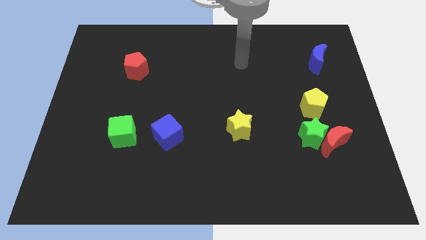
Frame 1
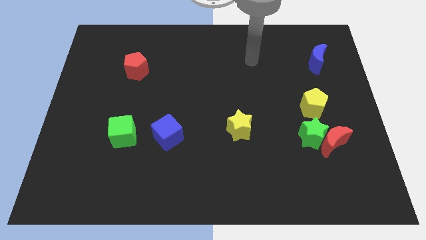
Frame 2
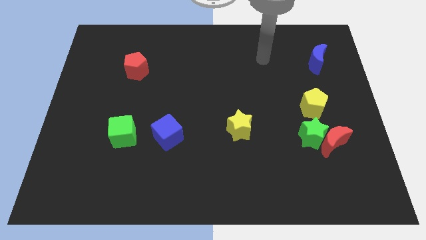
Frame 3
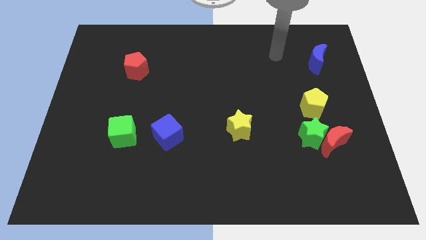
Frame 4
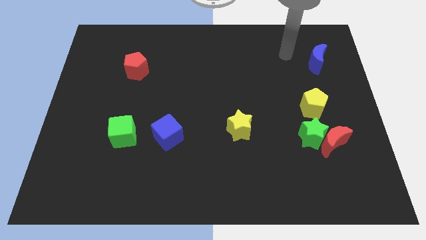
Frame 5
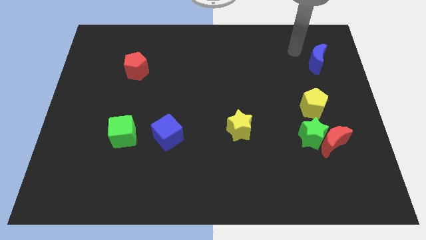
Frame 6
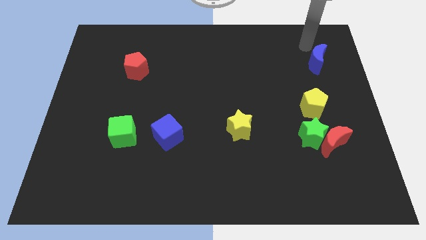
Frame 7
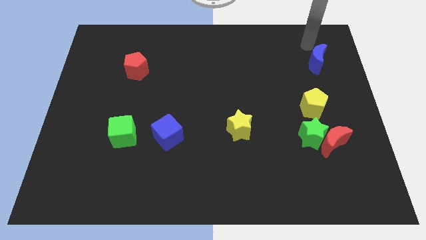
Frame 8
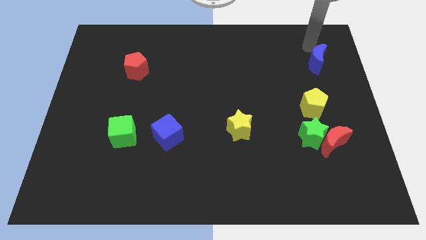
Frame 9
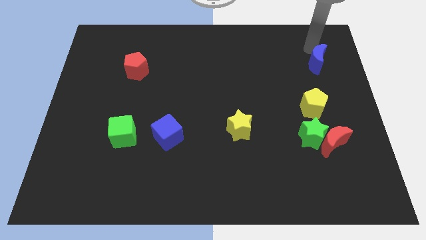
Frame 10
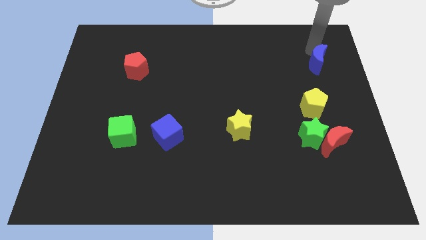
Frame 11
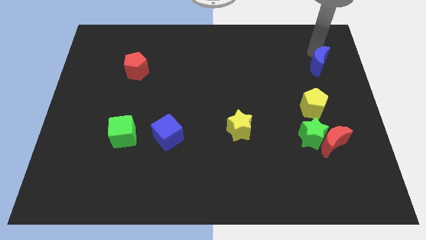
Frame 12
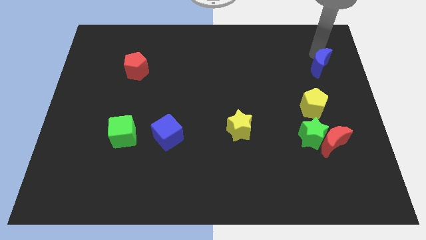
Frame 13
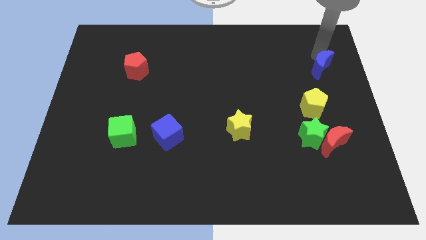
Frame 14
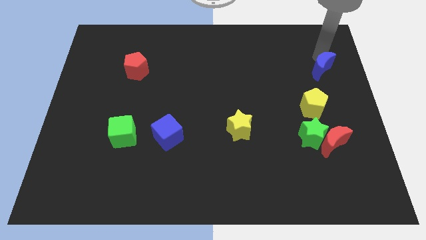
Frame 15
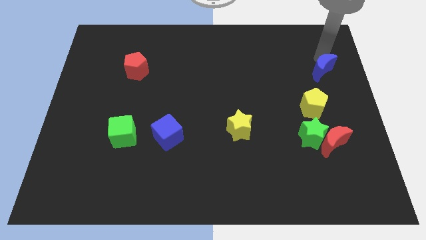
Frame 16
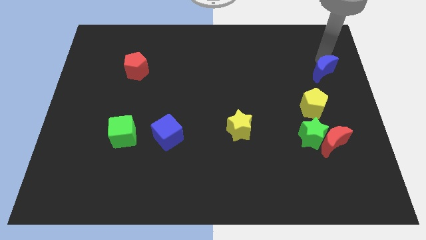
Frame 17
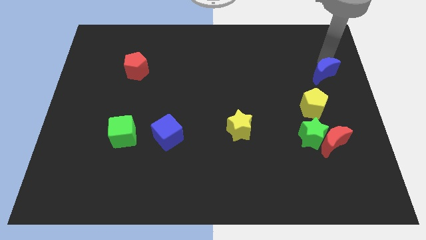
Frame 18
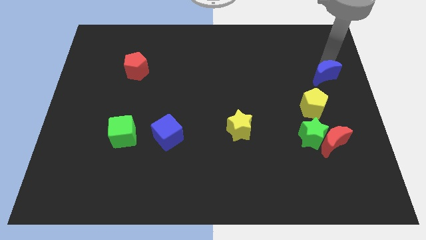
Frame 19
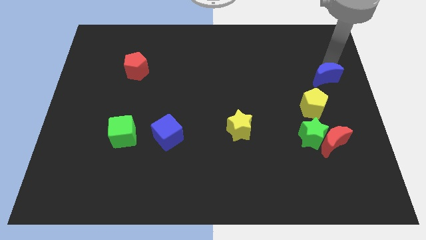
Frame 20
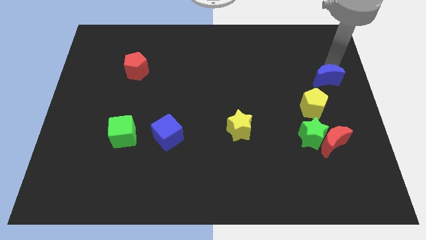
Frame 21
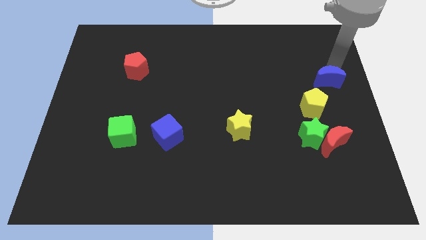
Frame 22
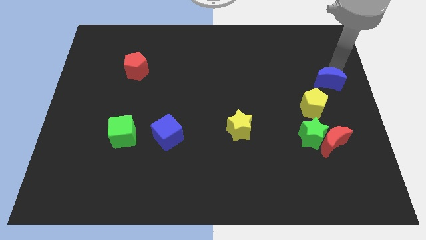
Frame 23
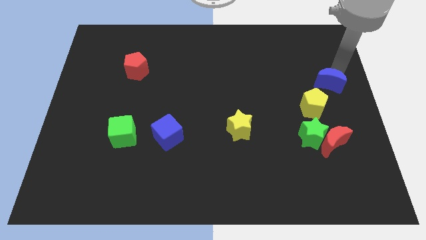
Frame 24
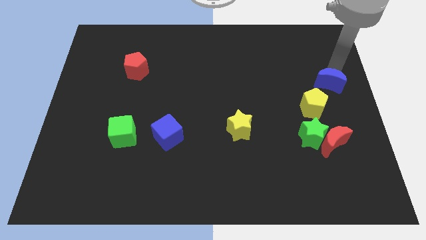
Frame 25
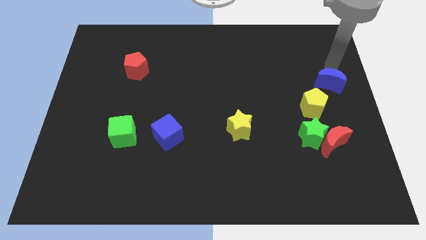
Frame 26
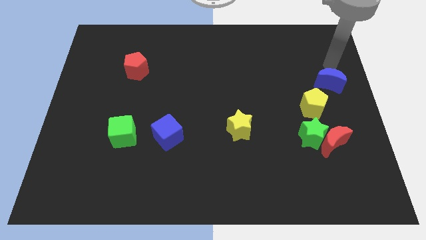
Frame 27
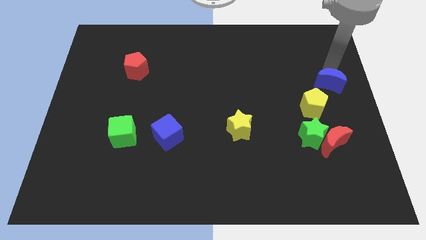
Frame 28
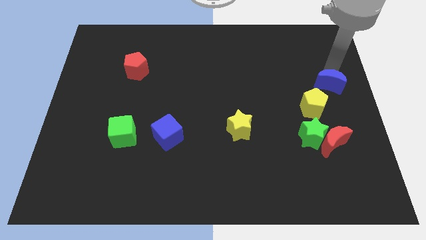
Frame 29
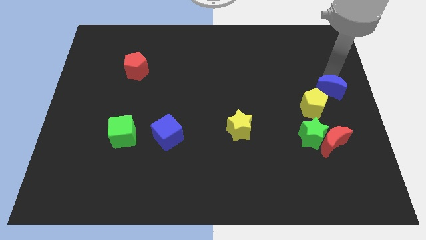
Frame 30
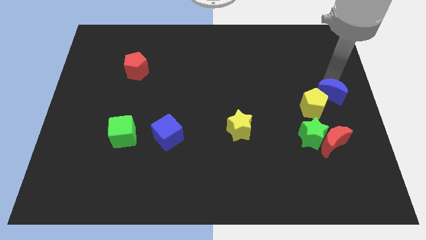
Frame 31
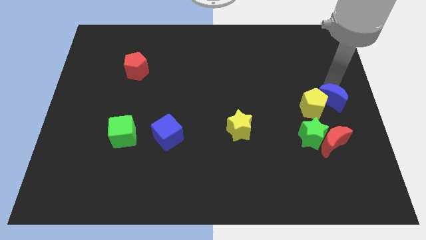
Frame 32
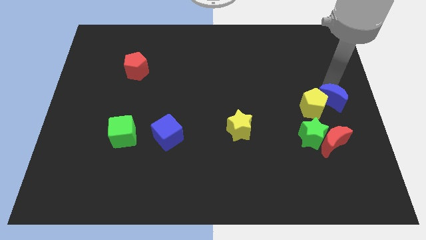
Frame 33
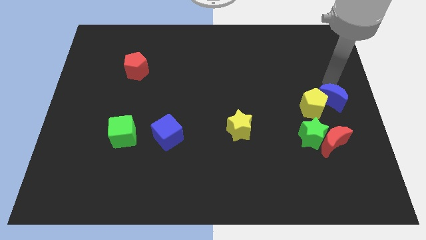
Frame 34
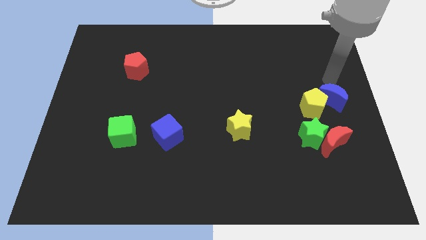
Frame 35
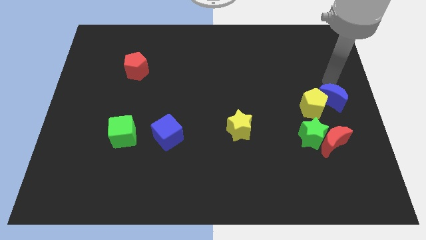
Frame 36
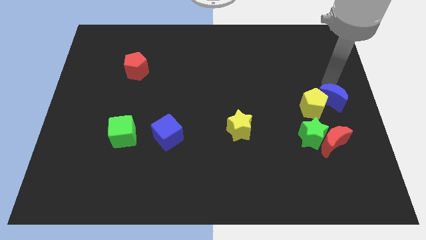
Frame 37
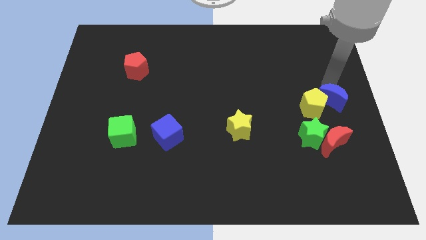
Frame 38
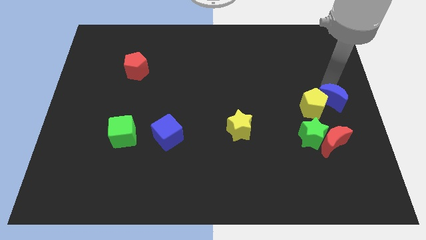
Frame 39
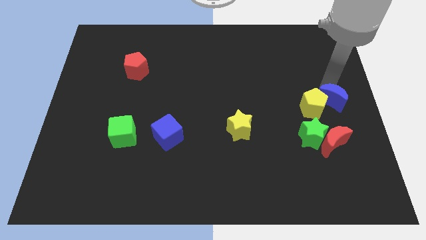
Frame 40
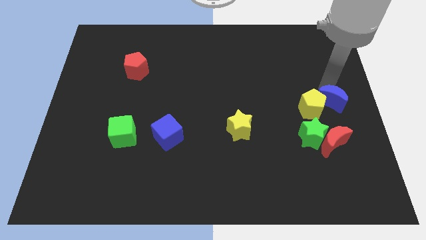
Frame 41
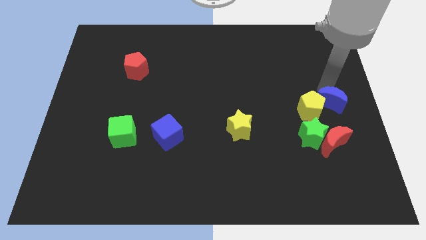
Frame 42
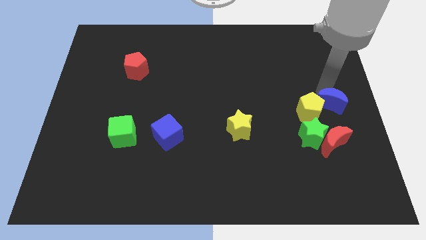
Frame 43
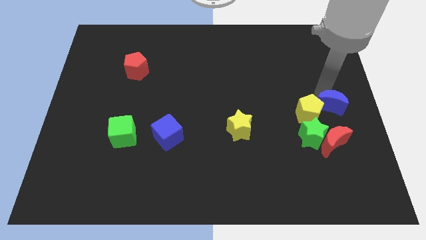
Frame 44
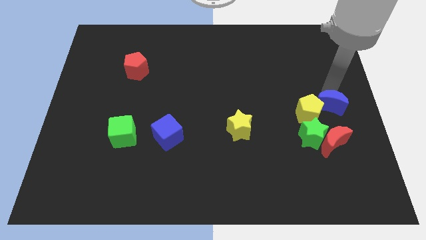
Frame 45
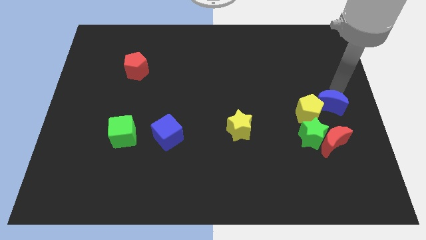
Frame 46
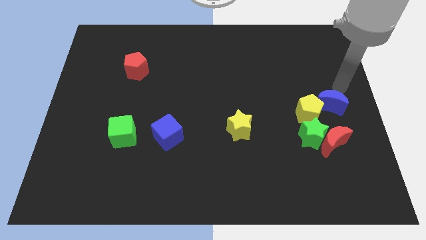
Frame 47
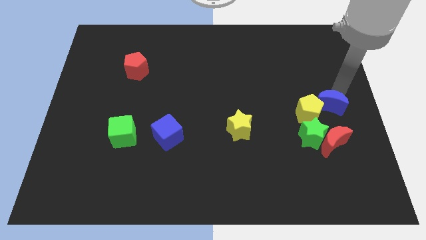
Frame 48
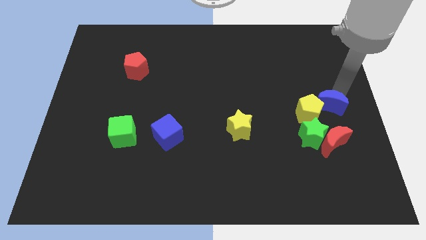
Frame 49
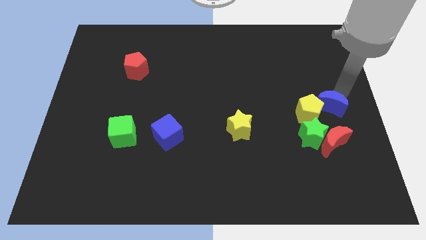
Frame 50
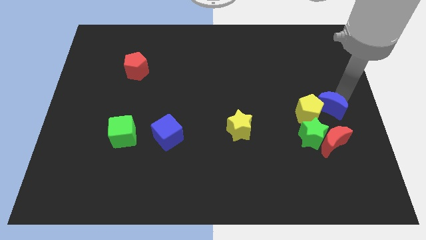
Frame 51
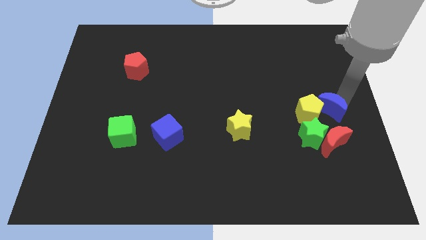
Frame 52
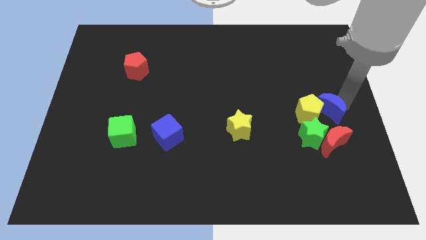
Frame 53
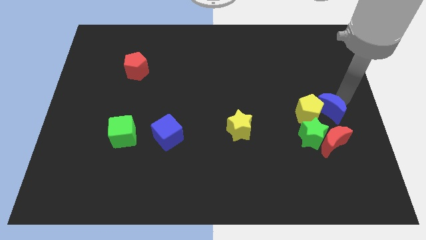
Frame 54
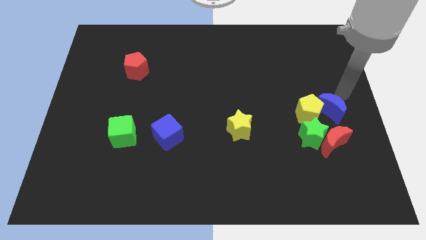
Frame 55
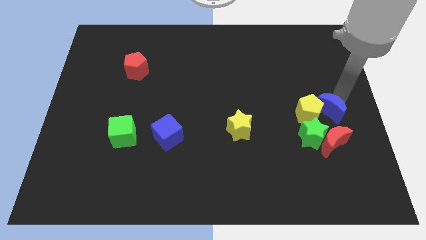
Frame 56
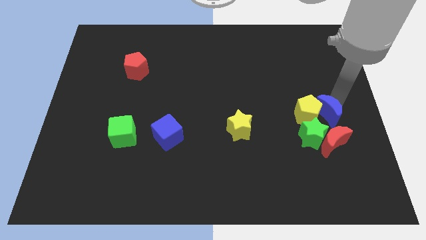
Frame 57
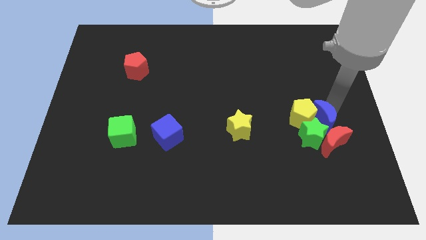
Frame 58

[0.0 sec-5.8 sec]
put the blue moon towards the green star

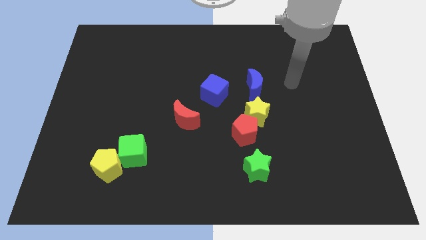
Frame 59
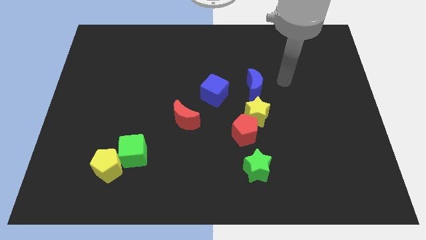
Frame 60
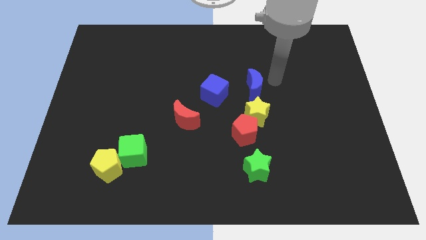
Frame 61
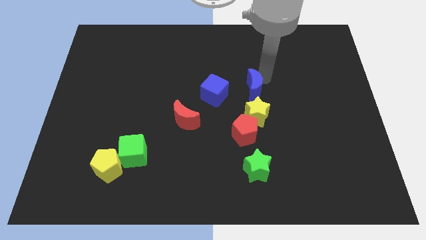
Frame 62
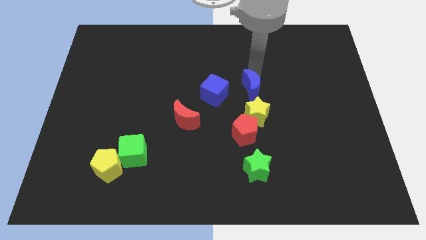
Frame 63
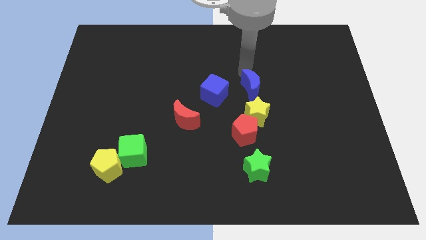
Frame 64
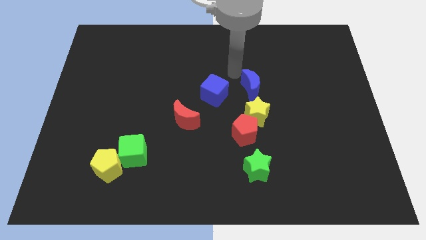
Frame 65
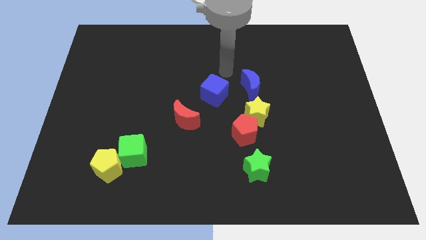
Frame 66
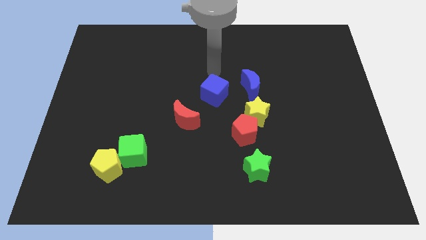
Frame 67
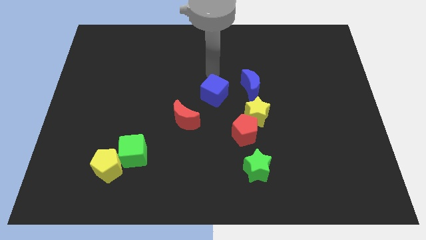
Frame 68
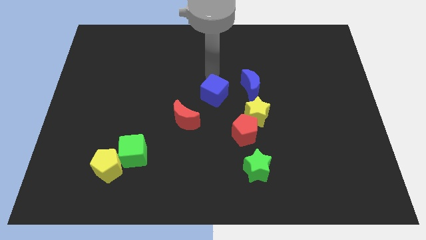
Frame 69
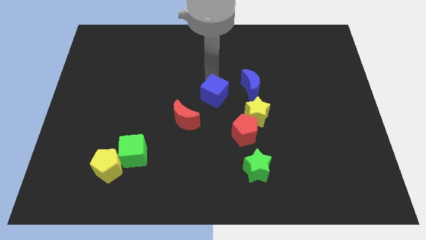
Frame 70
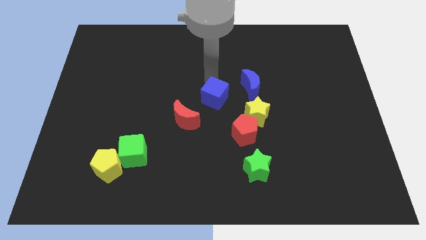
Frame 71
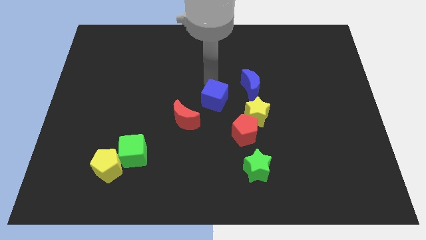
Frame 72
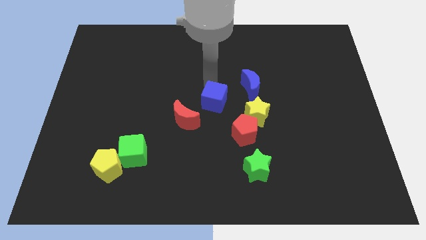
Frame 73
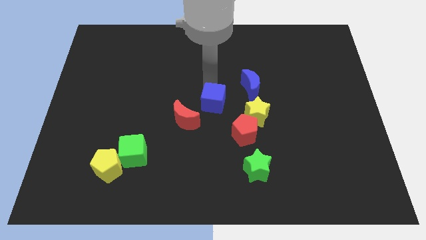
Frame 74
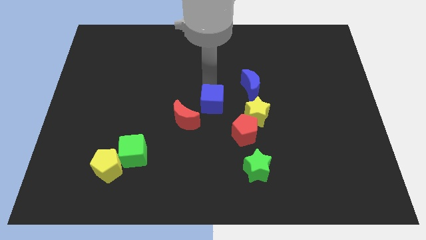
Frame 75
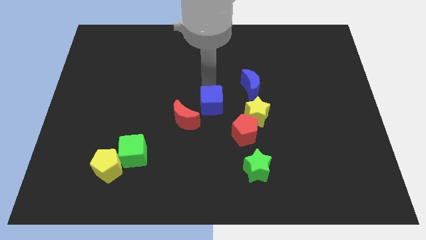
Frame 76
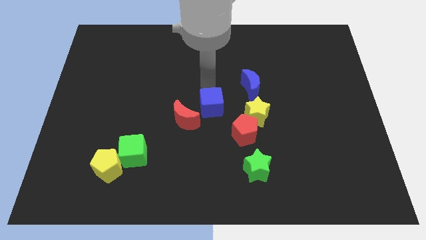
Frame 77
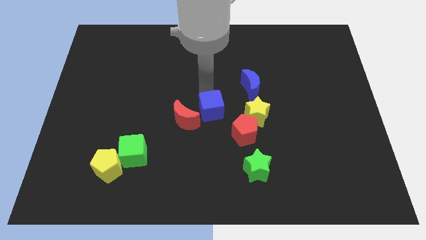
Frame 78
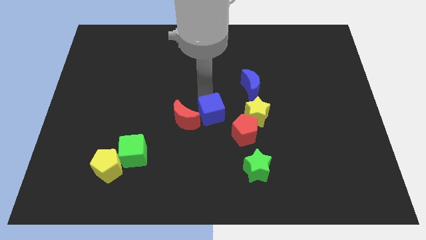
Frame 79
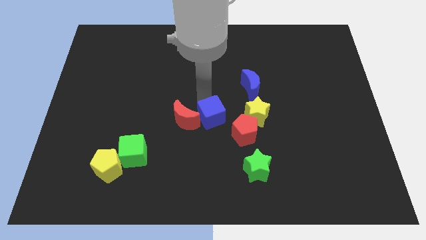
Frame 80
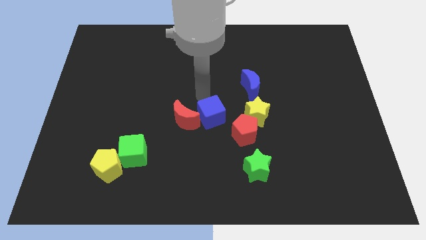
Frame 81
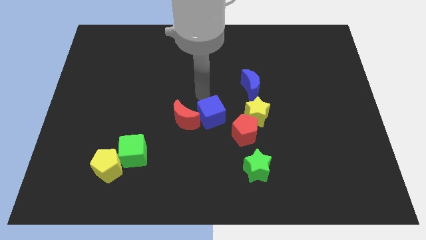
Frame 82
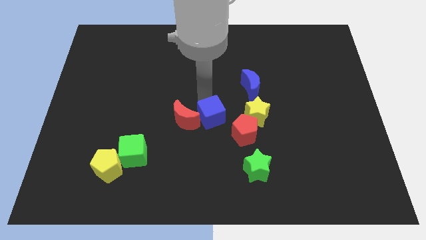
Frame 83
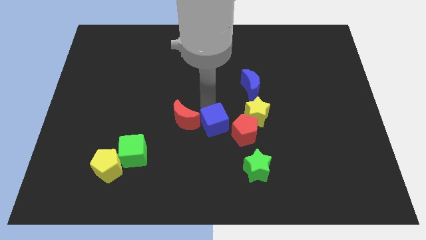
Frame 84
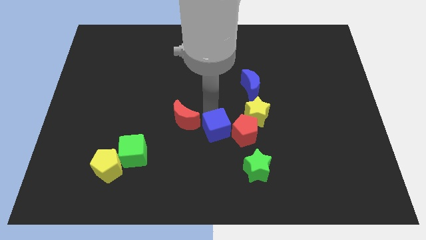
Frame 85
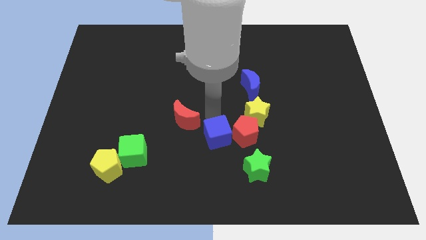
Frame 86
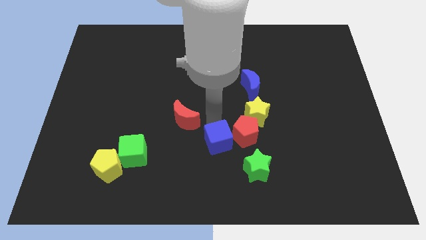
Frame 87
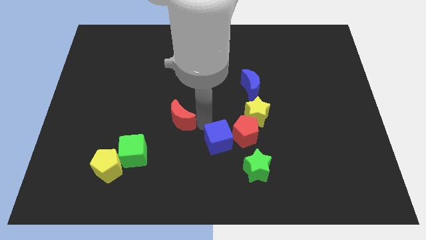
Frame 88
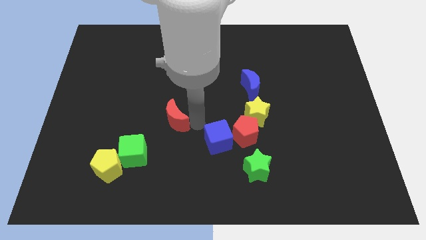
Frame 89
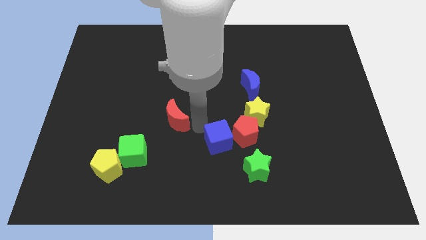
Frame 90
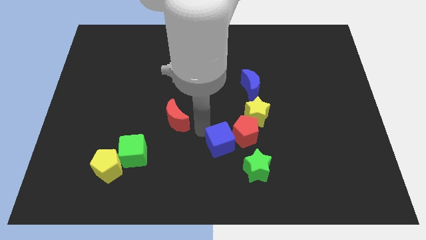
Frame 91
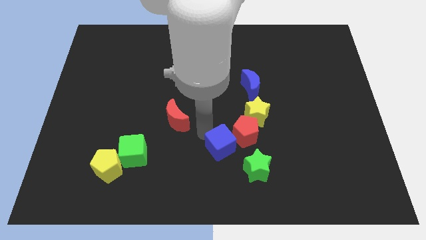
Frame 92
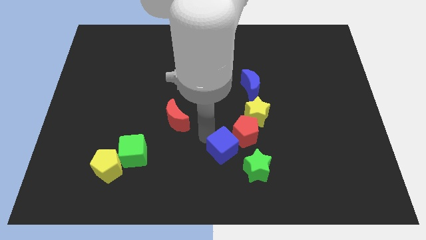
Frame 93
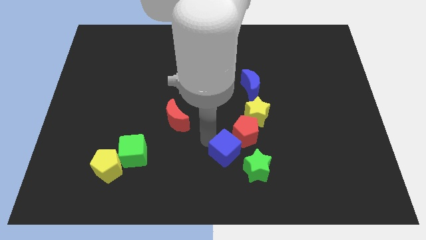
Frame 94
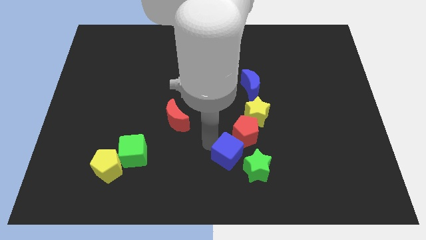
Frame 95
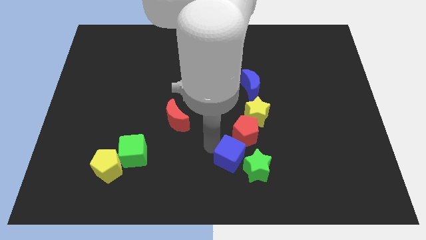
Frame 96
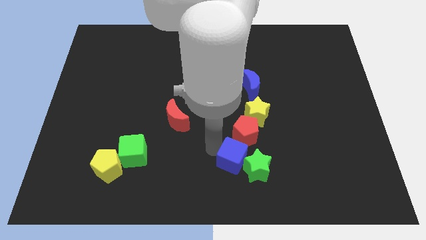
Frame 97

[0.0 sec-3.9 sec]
put the blue cube to the green star
